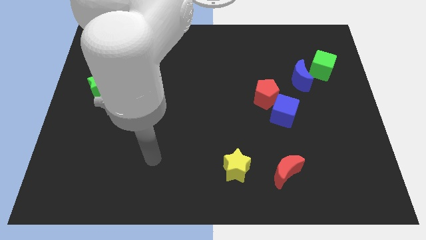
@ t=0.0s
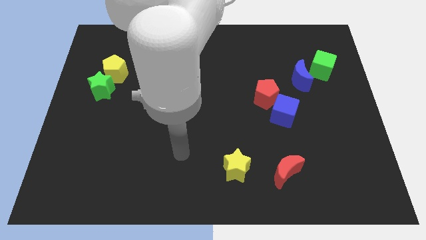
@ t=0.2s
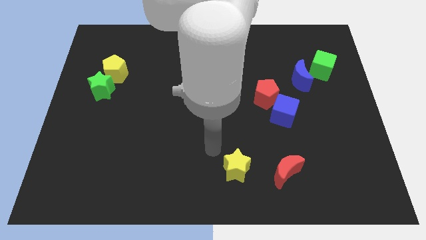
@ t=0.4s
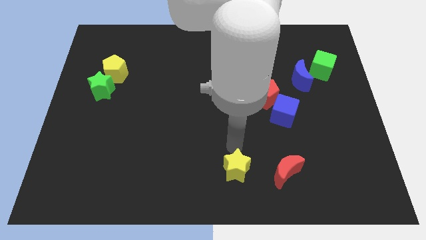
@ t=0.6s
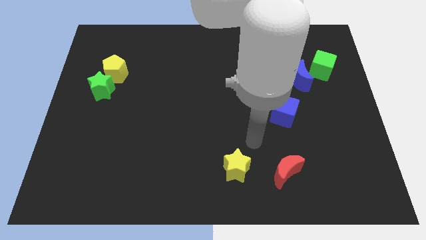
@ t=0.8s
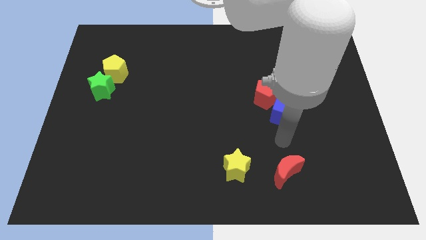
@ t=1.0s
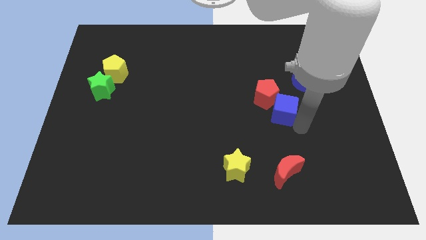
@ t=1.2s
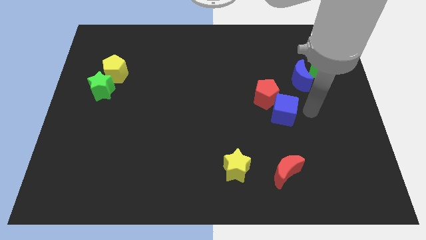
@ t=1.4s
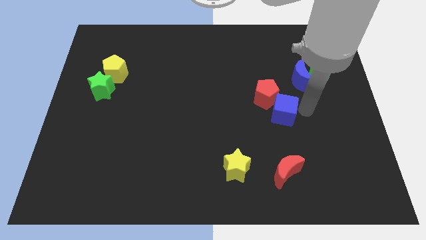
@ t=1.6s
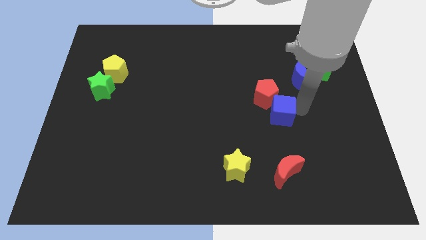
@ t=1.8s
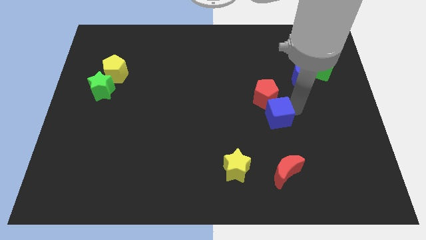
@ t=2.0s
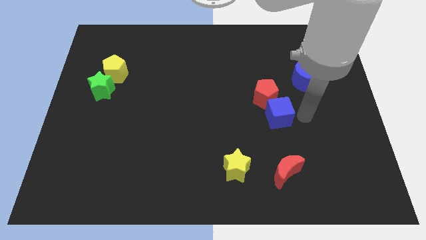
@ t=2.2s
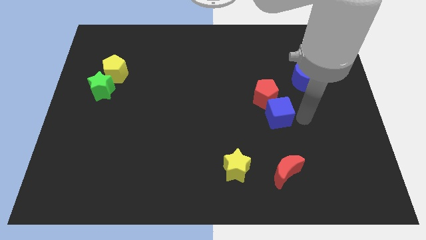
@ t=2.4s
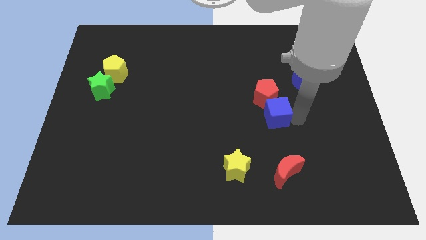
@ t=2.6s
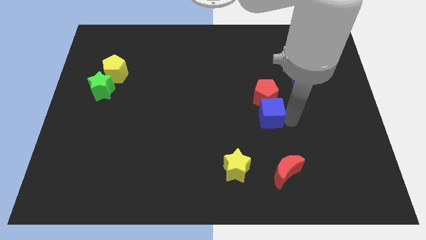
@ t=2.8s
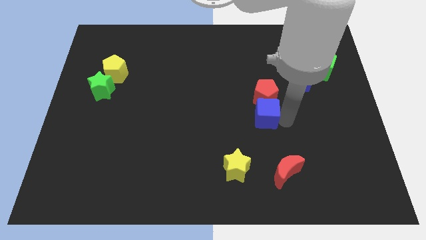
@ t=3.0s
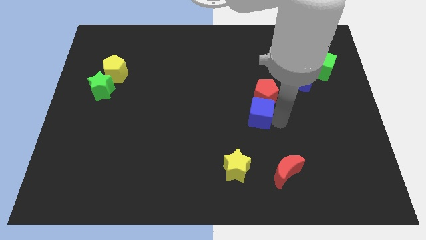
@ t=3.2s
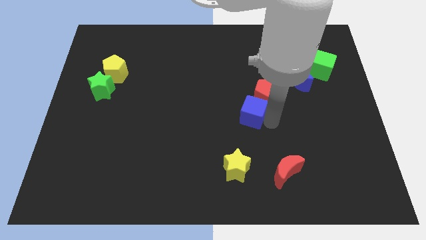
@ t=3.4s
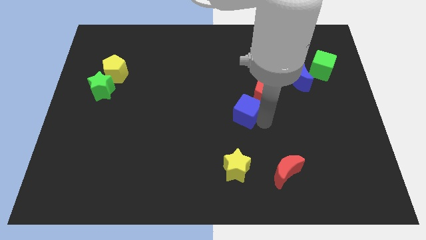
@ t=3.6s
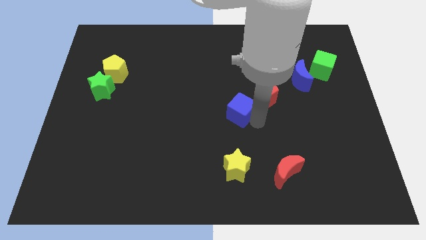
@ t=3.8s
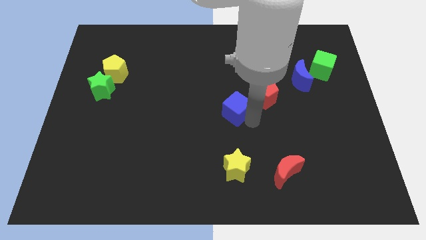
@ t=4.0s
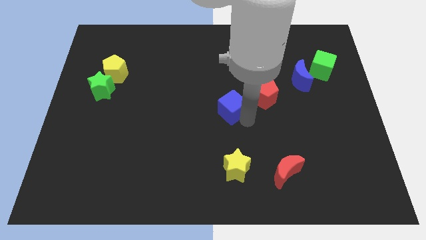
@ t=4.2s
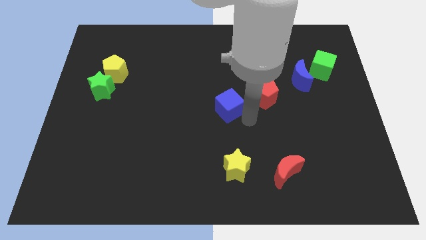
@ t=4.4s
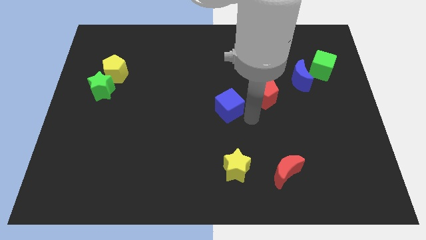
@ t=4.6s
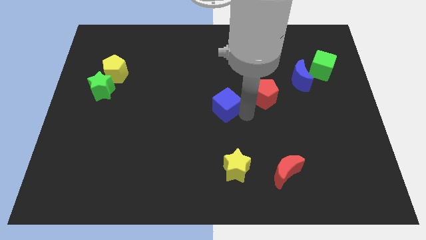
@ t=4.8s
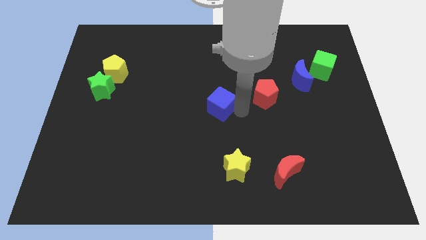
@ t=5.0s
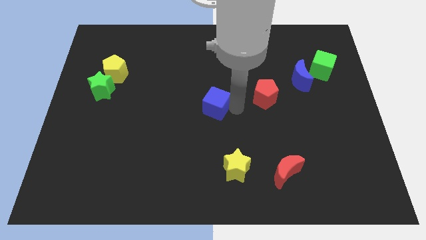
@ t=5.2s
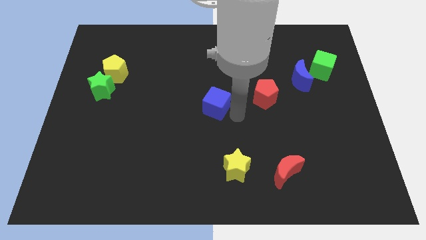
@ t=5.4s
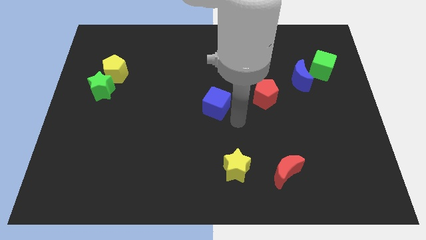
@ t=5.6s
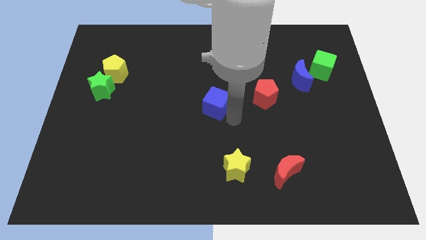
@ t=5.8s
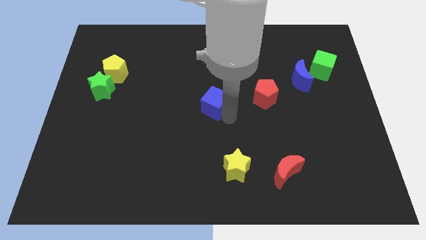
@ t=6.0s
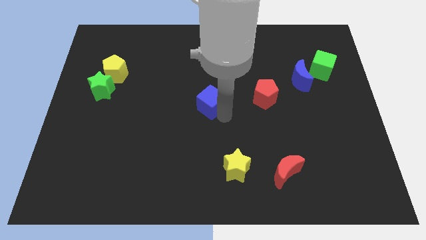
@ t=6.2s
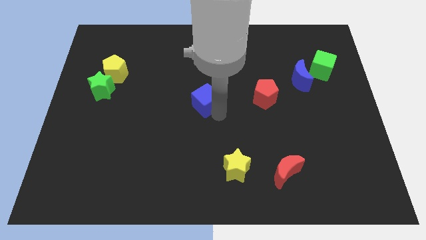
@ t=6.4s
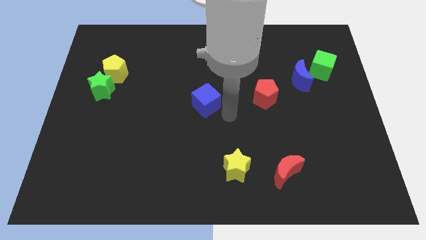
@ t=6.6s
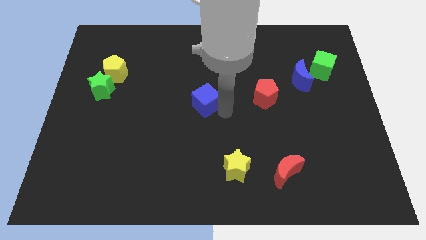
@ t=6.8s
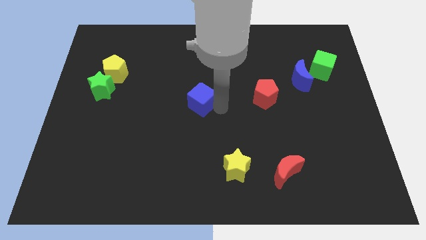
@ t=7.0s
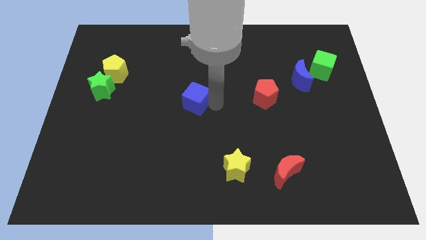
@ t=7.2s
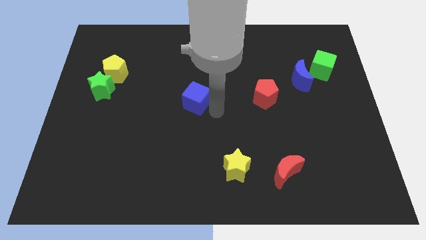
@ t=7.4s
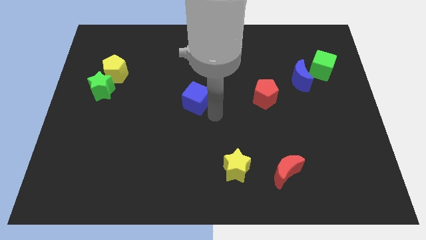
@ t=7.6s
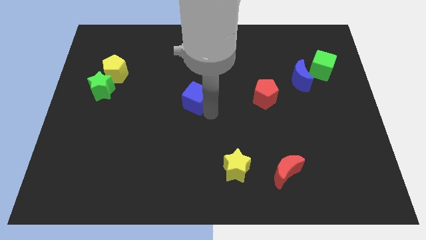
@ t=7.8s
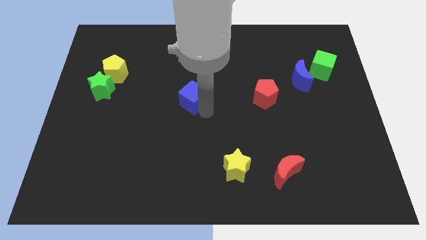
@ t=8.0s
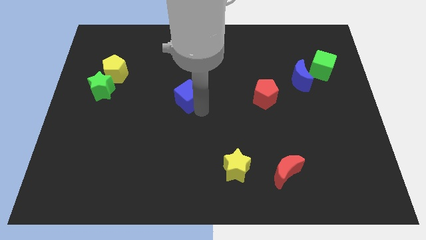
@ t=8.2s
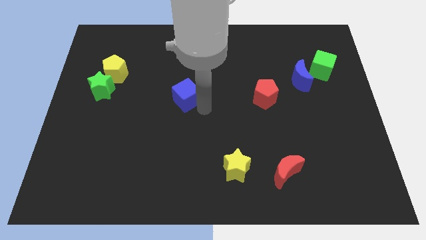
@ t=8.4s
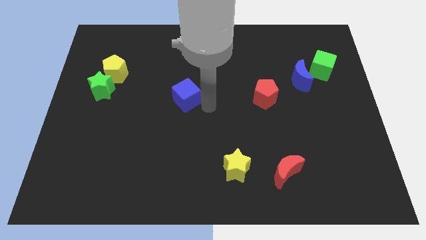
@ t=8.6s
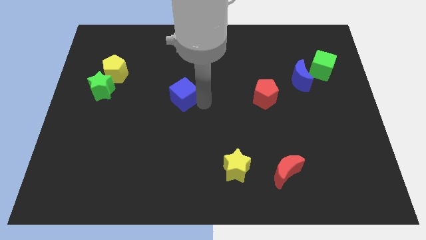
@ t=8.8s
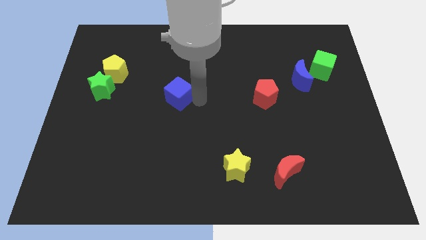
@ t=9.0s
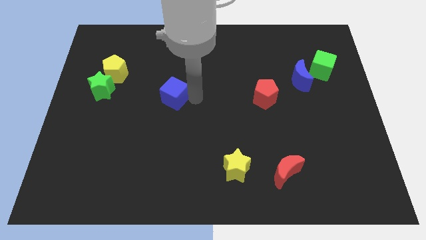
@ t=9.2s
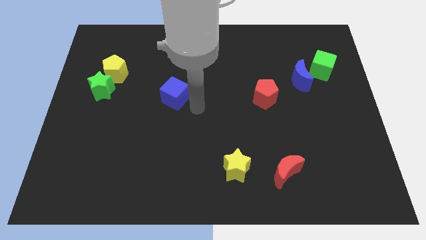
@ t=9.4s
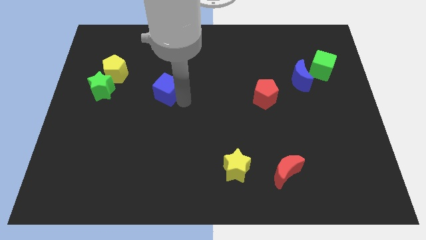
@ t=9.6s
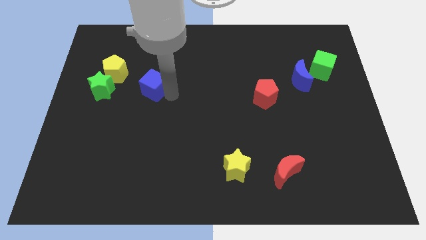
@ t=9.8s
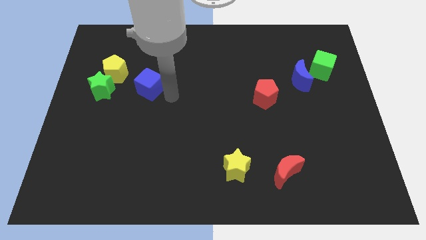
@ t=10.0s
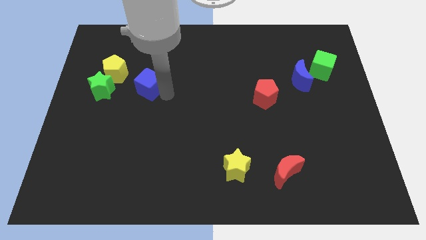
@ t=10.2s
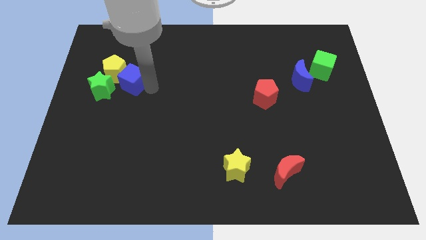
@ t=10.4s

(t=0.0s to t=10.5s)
slide the blue cube close to the yellow pentagon

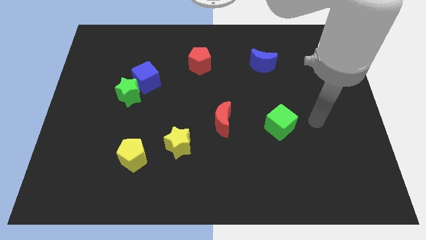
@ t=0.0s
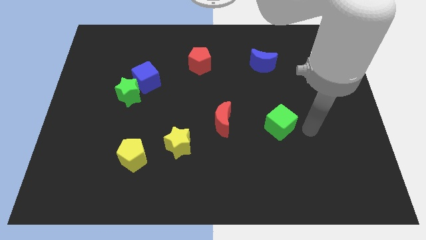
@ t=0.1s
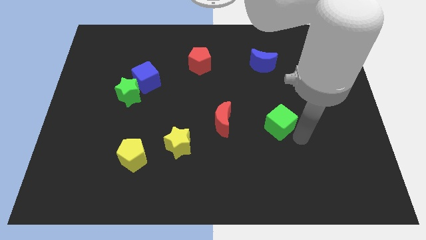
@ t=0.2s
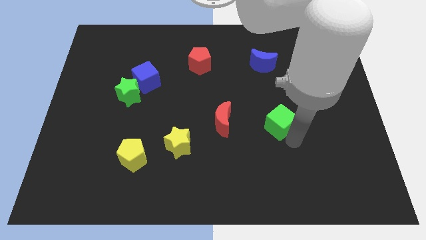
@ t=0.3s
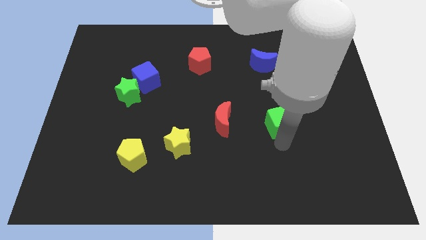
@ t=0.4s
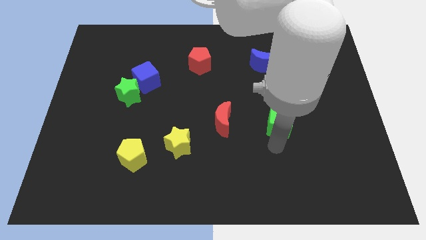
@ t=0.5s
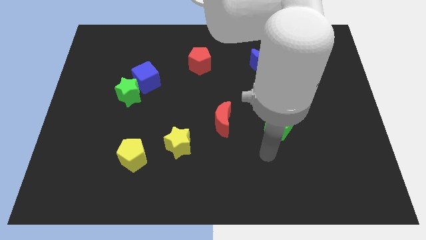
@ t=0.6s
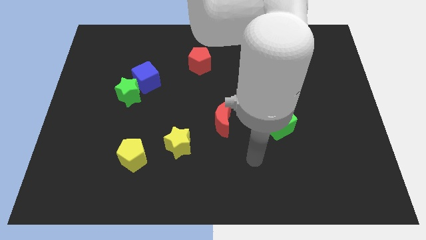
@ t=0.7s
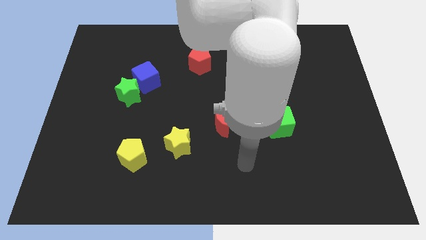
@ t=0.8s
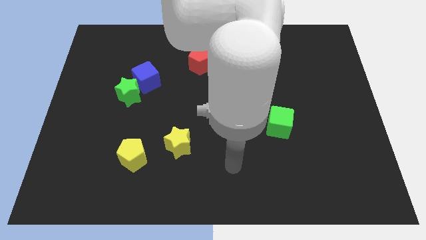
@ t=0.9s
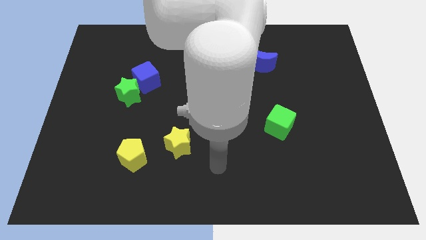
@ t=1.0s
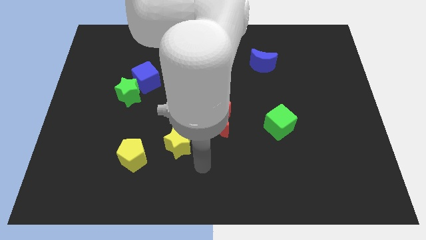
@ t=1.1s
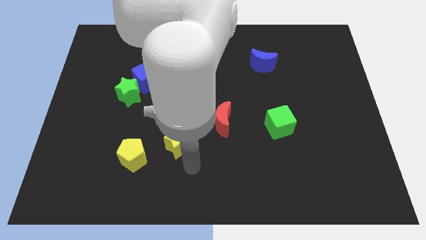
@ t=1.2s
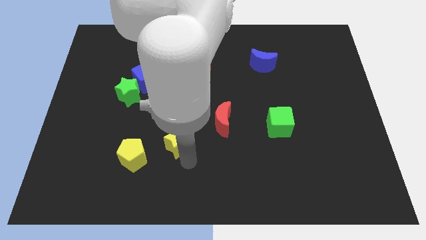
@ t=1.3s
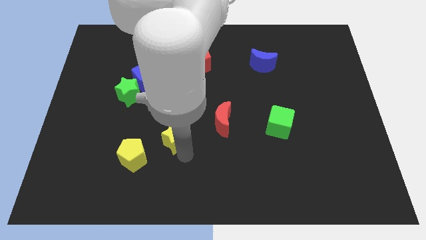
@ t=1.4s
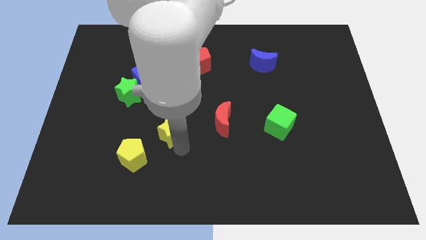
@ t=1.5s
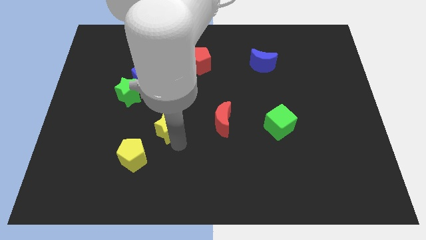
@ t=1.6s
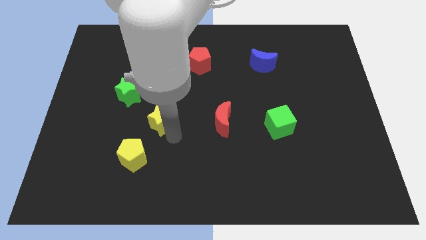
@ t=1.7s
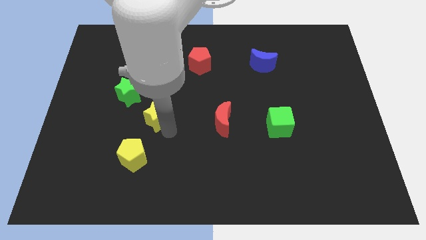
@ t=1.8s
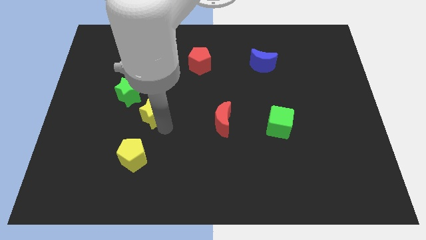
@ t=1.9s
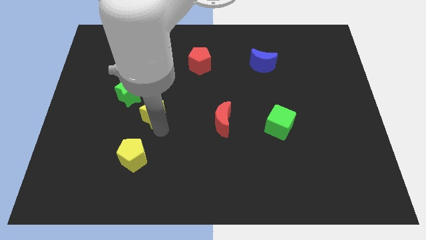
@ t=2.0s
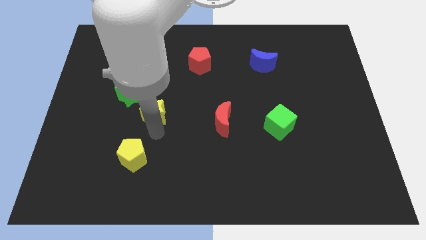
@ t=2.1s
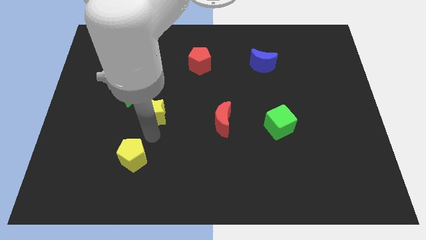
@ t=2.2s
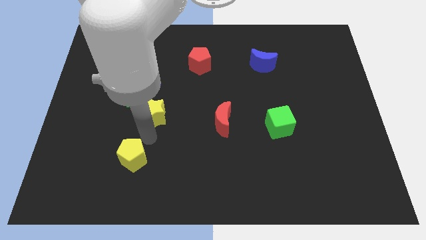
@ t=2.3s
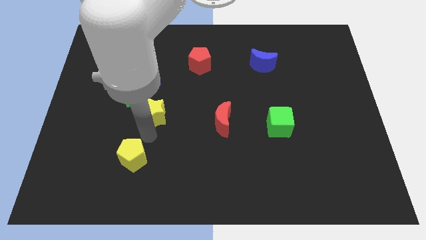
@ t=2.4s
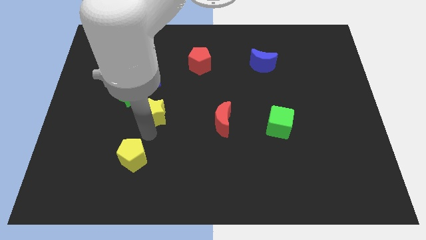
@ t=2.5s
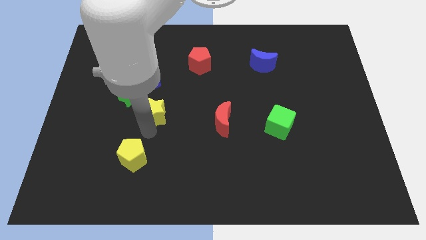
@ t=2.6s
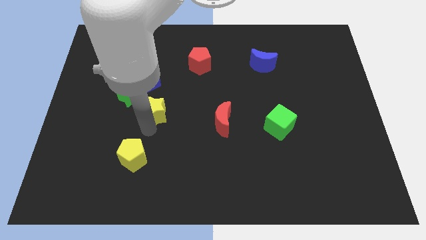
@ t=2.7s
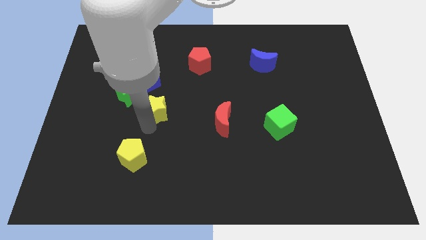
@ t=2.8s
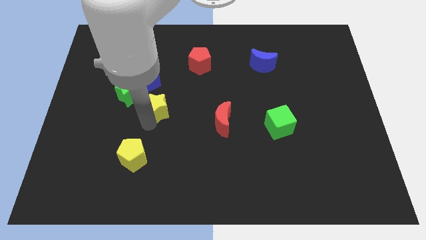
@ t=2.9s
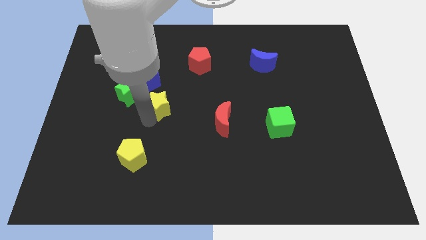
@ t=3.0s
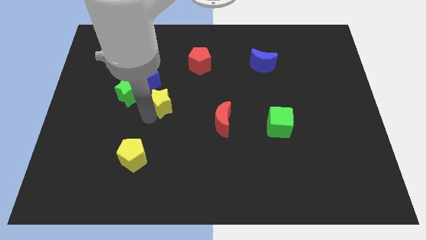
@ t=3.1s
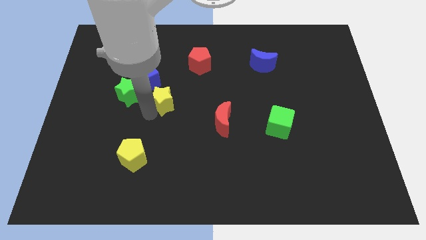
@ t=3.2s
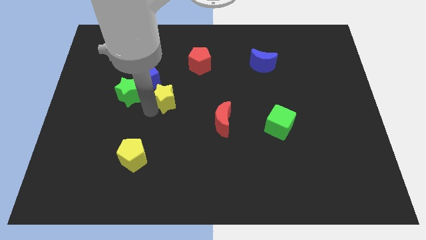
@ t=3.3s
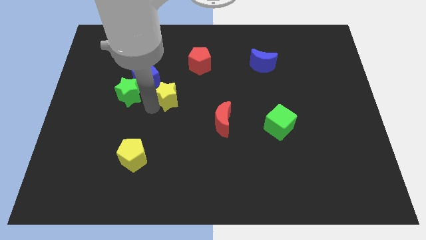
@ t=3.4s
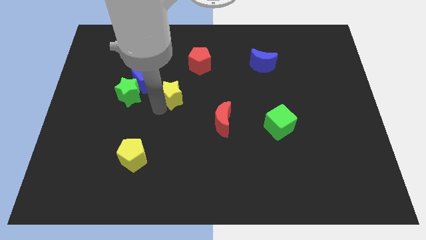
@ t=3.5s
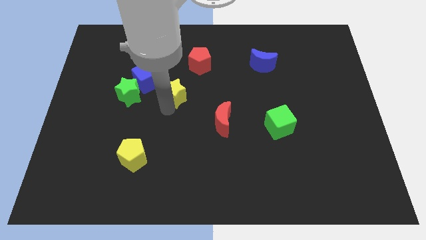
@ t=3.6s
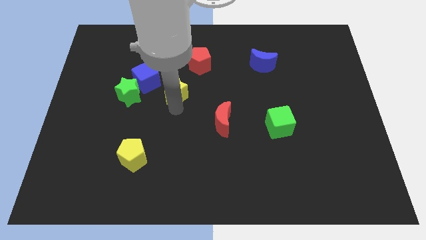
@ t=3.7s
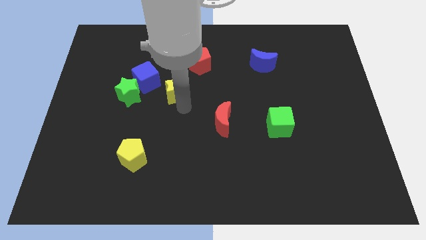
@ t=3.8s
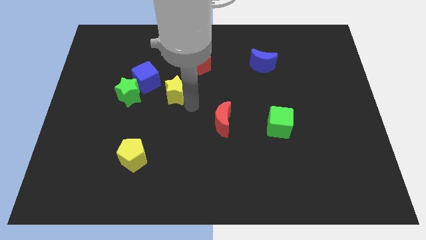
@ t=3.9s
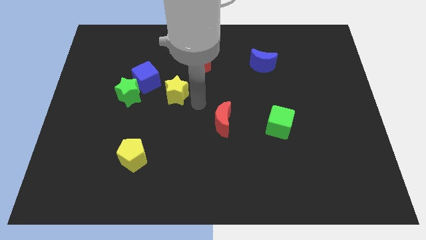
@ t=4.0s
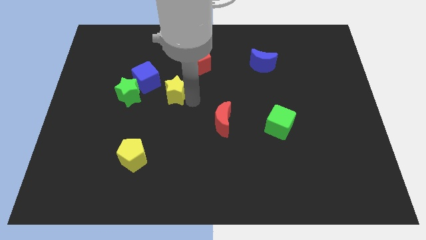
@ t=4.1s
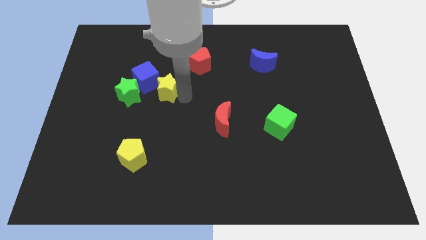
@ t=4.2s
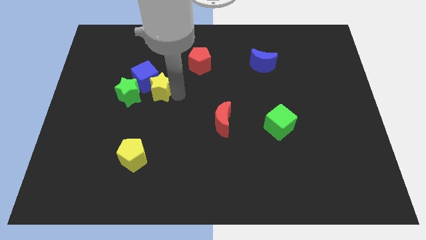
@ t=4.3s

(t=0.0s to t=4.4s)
move the yellow star towards the blue cube
